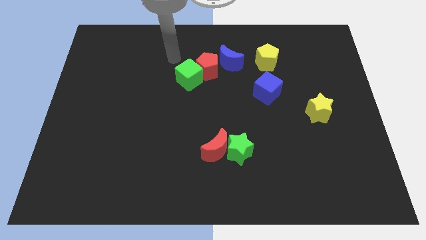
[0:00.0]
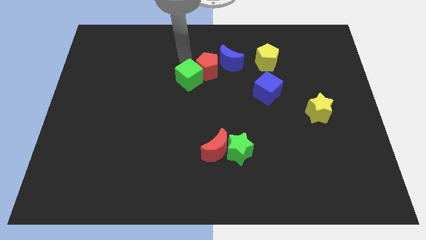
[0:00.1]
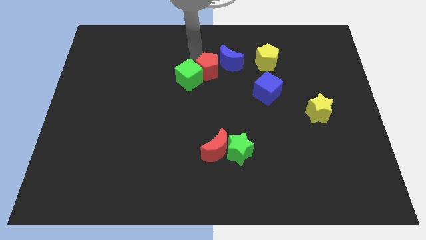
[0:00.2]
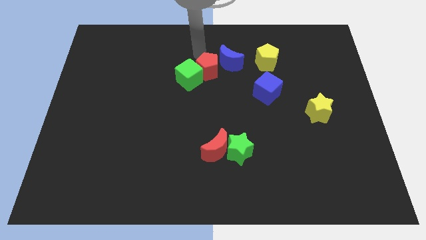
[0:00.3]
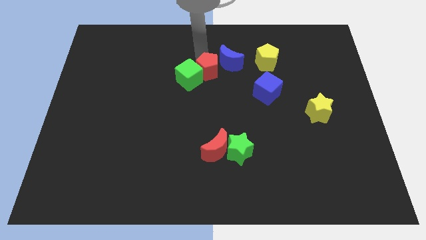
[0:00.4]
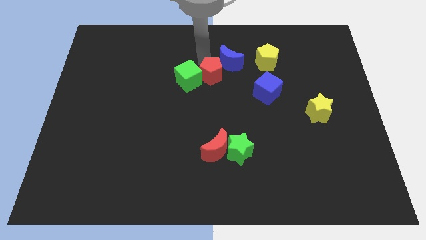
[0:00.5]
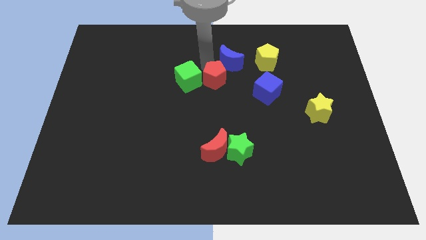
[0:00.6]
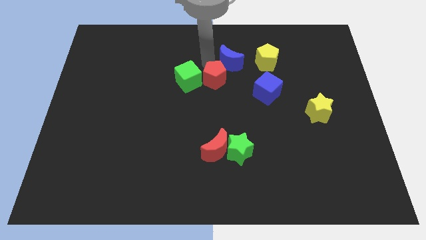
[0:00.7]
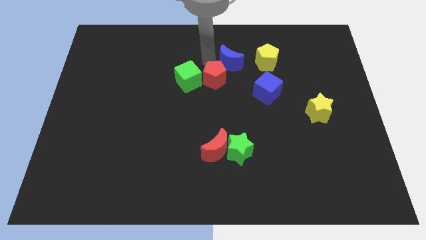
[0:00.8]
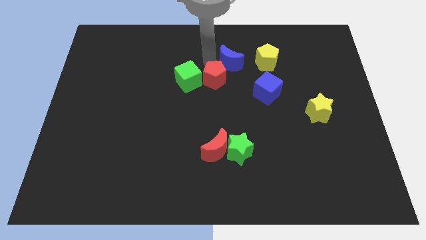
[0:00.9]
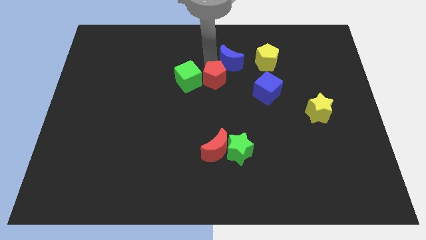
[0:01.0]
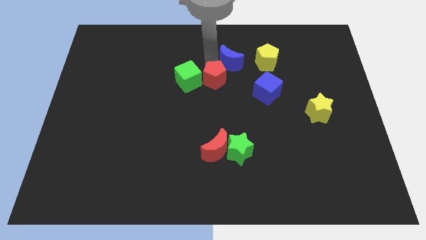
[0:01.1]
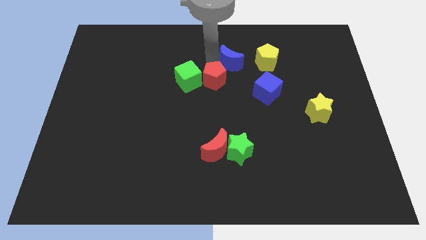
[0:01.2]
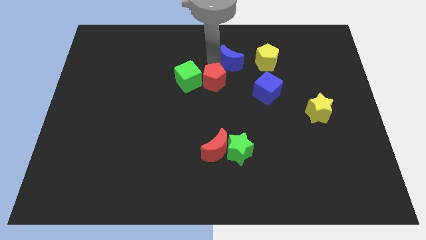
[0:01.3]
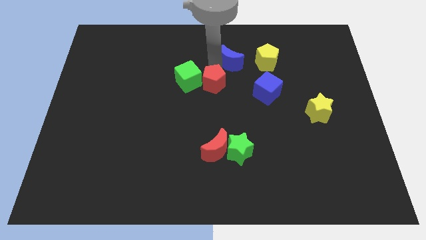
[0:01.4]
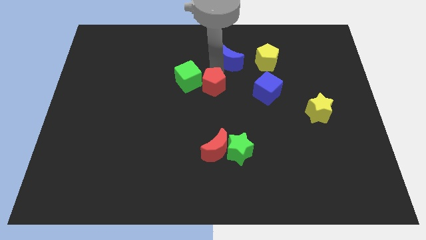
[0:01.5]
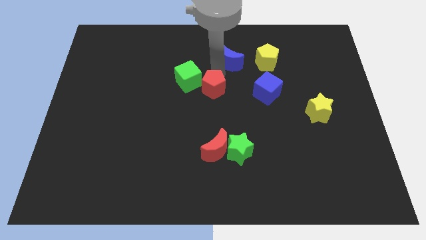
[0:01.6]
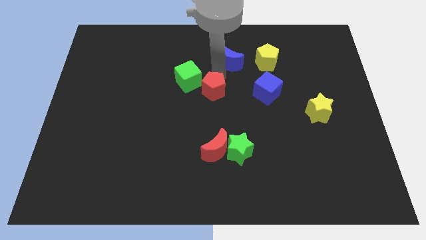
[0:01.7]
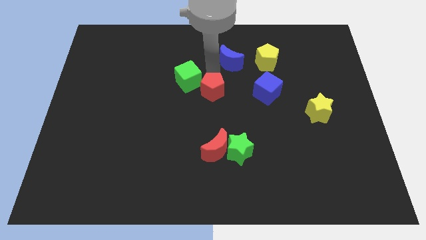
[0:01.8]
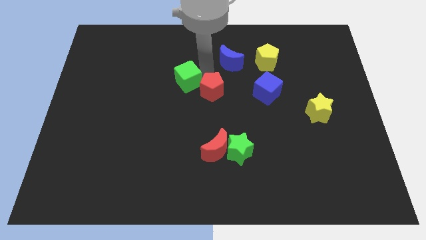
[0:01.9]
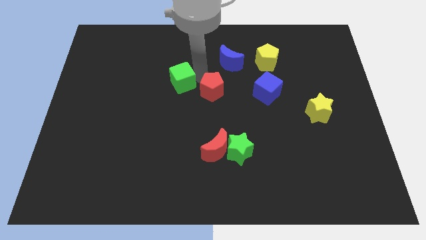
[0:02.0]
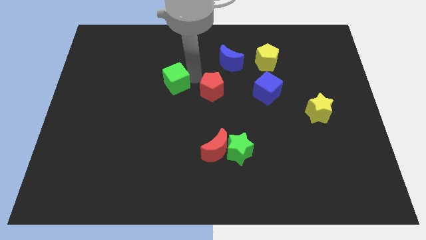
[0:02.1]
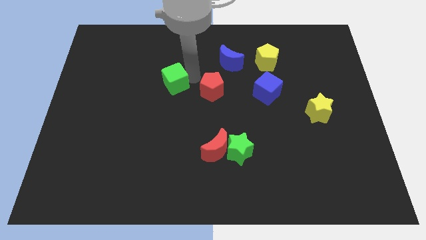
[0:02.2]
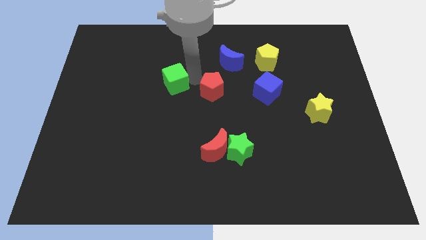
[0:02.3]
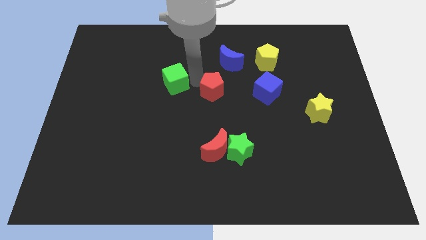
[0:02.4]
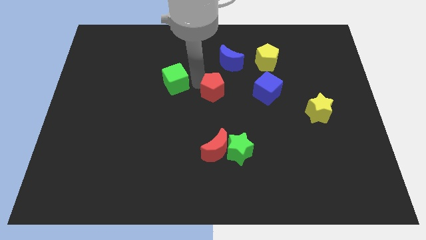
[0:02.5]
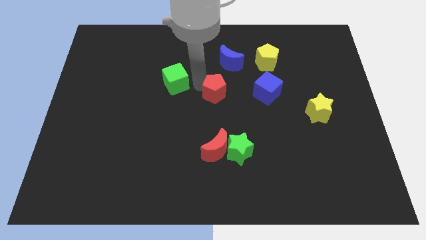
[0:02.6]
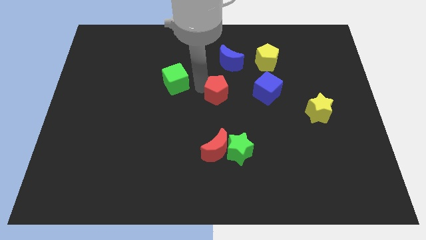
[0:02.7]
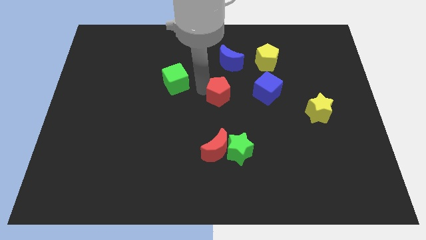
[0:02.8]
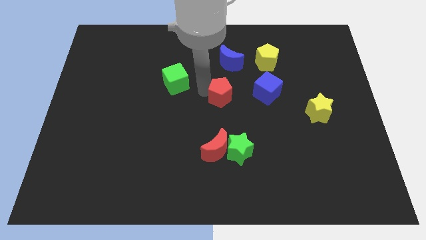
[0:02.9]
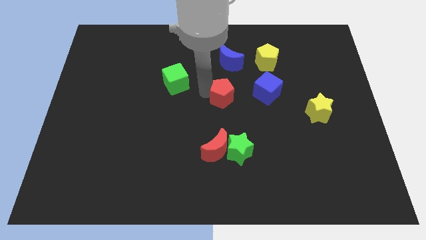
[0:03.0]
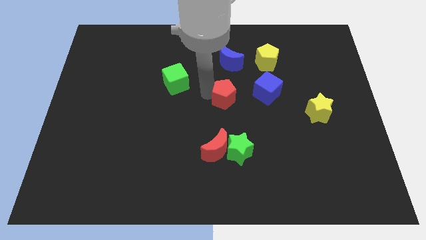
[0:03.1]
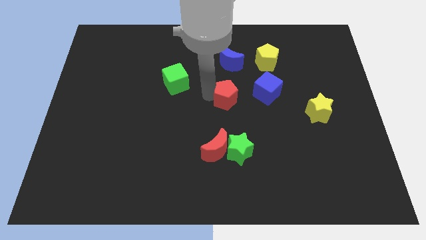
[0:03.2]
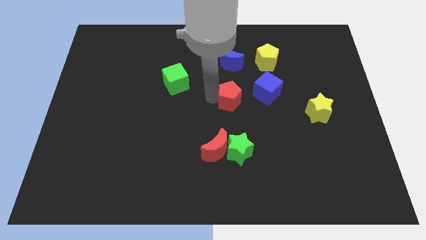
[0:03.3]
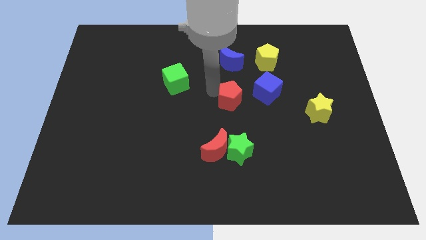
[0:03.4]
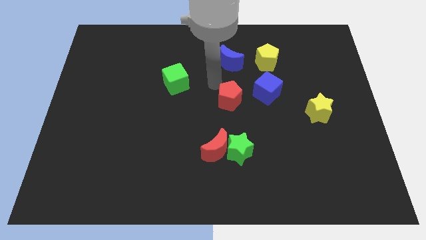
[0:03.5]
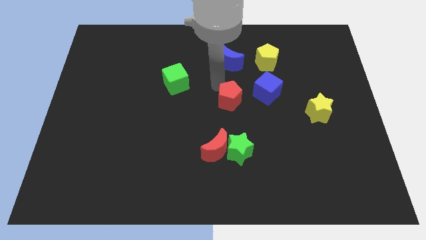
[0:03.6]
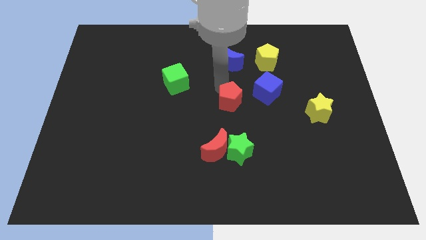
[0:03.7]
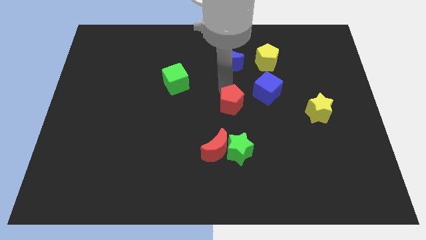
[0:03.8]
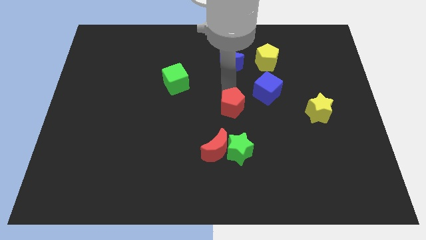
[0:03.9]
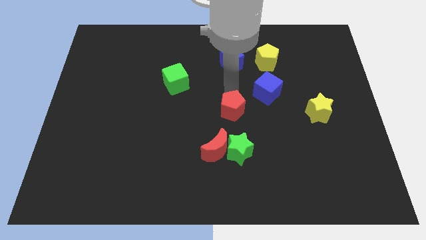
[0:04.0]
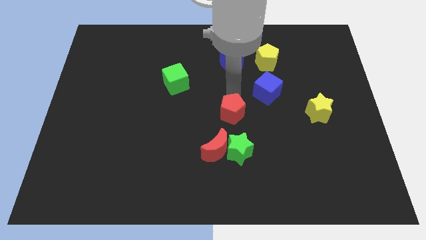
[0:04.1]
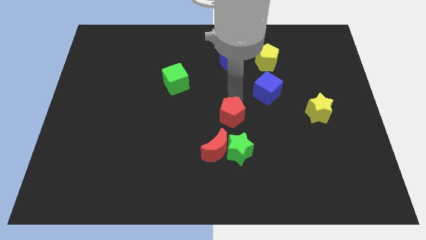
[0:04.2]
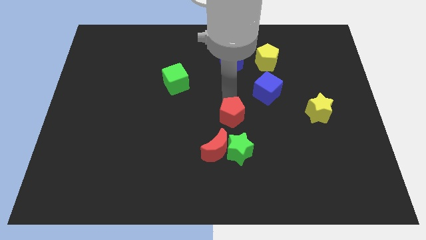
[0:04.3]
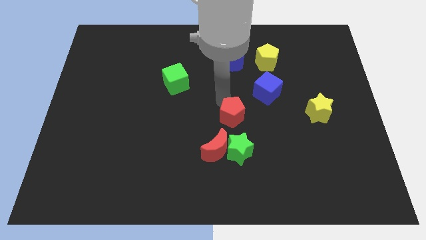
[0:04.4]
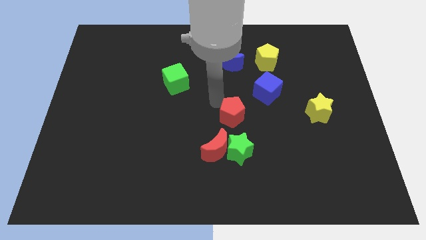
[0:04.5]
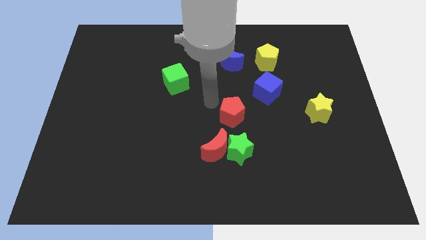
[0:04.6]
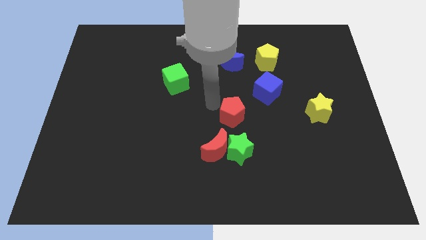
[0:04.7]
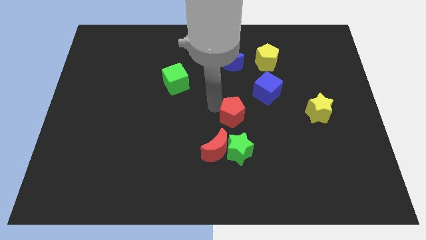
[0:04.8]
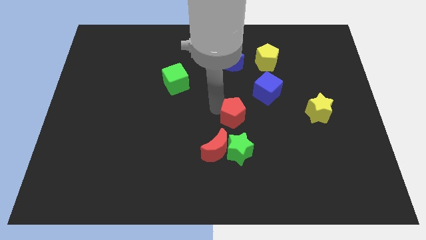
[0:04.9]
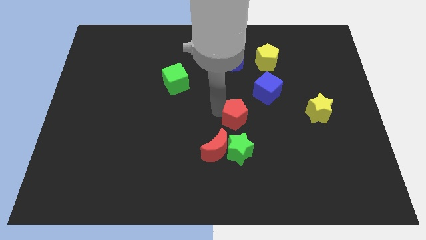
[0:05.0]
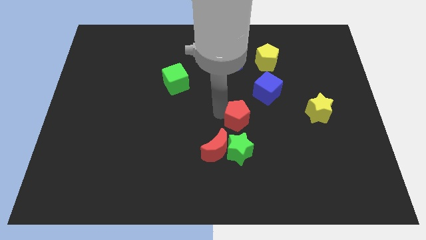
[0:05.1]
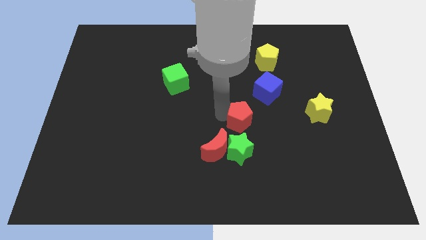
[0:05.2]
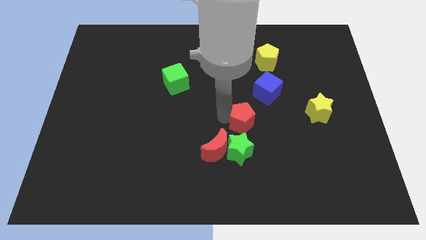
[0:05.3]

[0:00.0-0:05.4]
push the red pentagon diagonally up and to the right of the green star

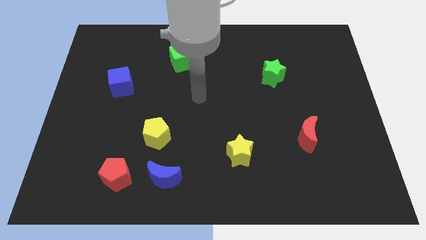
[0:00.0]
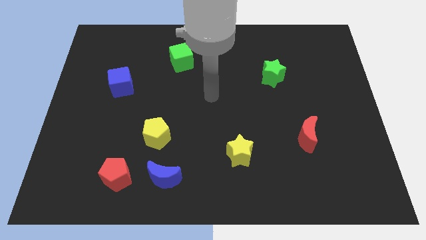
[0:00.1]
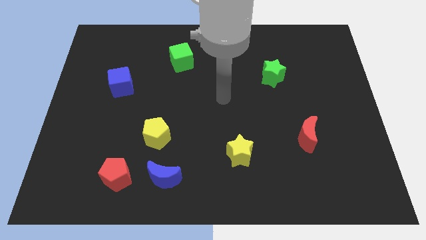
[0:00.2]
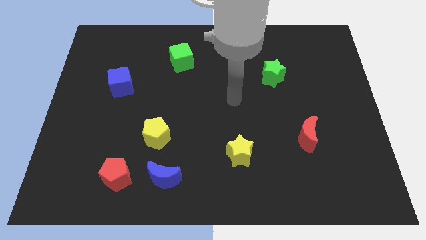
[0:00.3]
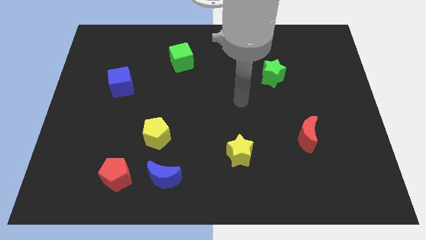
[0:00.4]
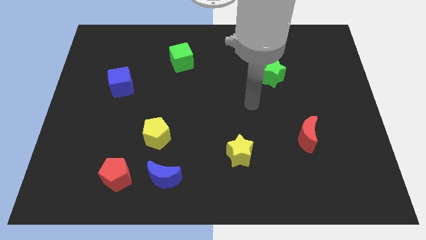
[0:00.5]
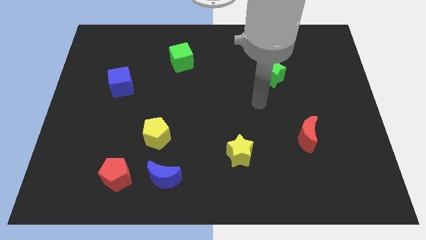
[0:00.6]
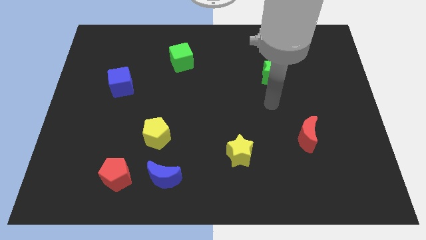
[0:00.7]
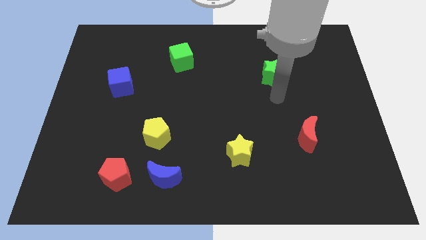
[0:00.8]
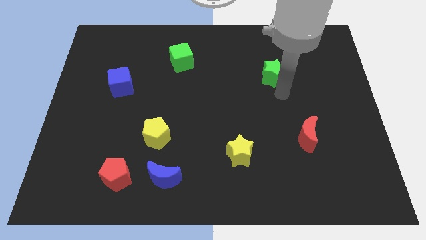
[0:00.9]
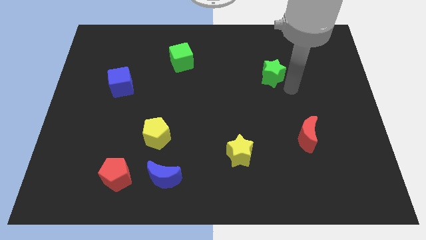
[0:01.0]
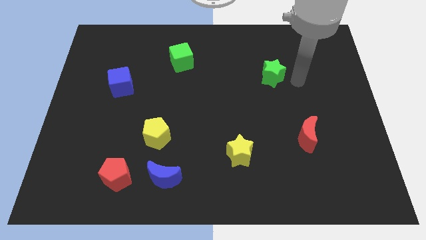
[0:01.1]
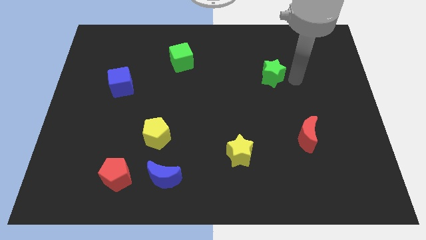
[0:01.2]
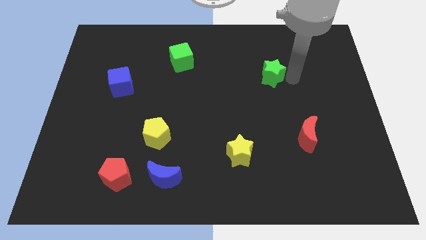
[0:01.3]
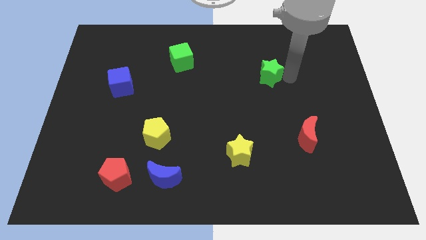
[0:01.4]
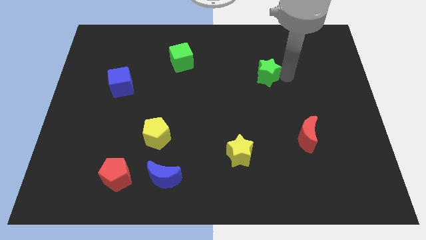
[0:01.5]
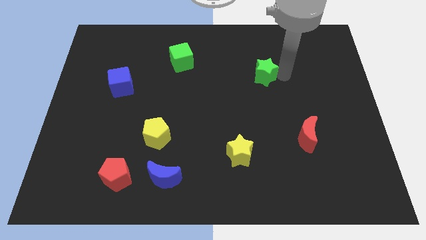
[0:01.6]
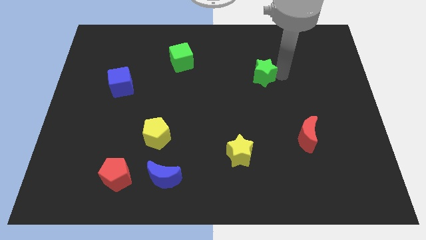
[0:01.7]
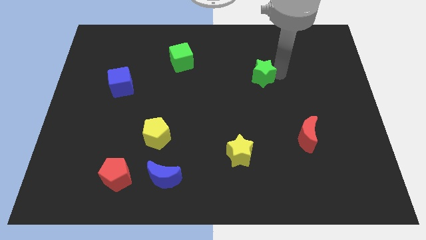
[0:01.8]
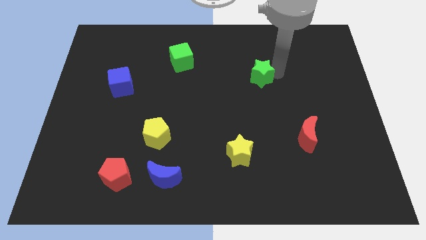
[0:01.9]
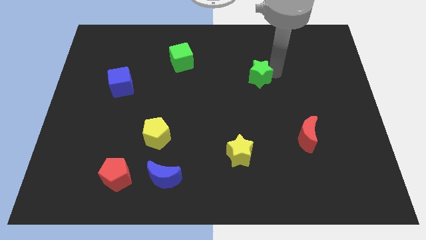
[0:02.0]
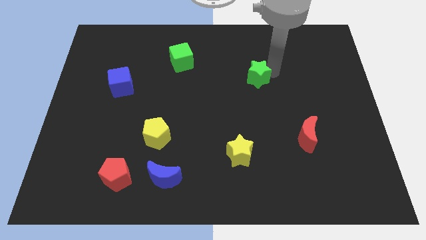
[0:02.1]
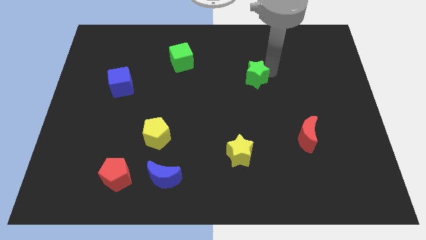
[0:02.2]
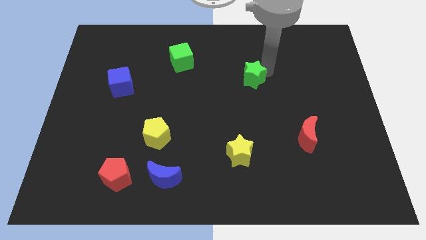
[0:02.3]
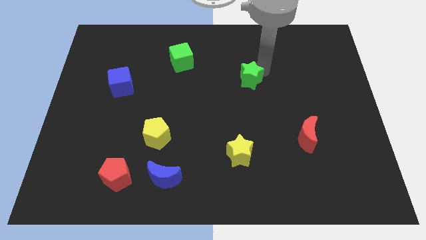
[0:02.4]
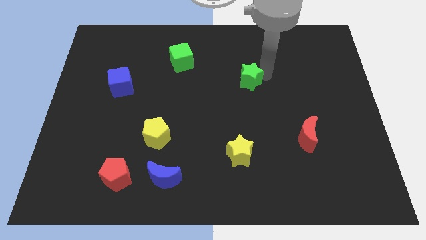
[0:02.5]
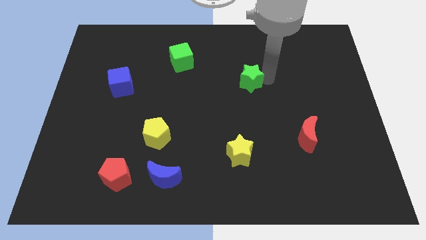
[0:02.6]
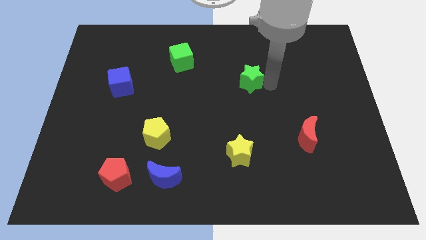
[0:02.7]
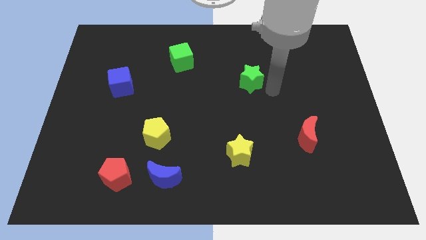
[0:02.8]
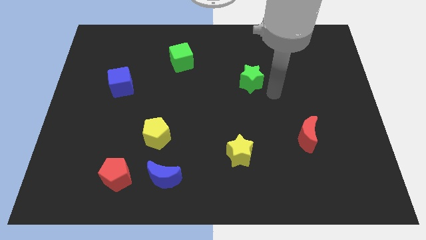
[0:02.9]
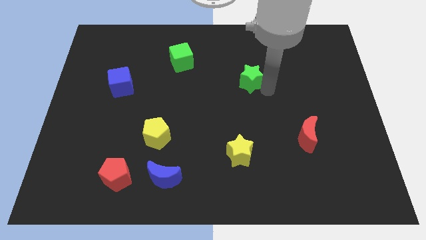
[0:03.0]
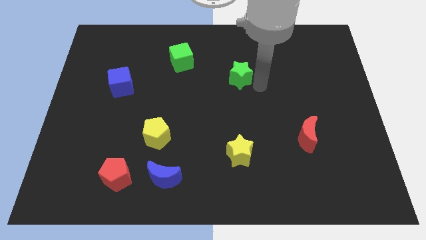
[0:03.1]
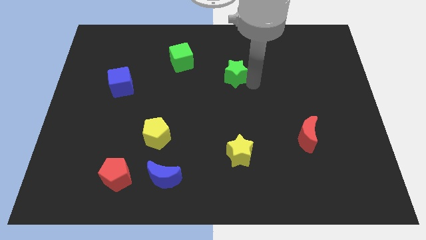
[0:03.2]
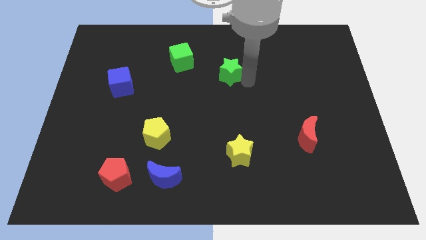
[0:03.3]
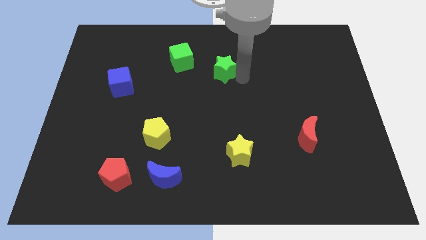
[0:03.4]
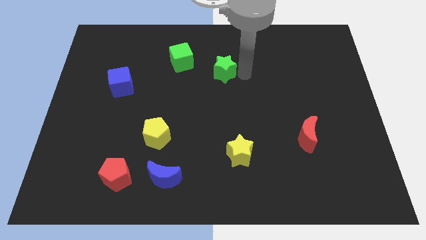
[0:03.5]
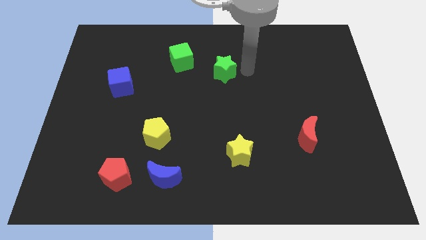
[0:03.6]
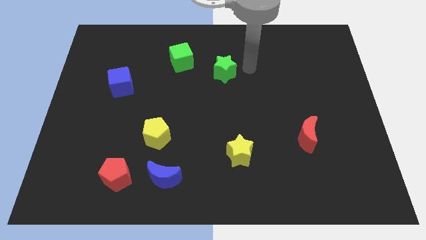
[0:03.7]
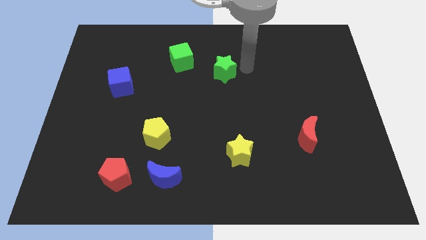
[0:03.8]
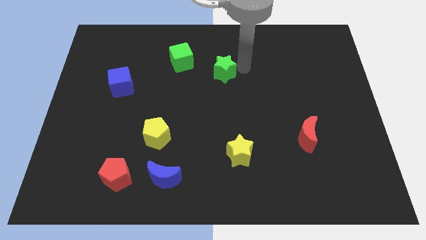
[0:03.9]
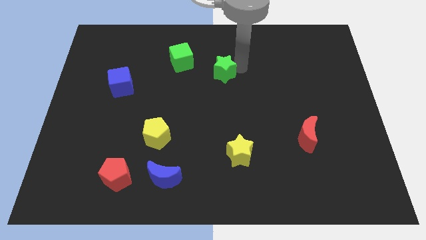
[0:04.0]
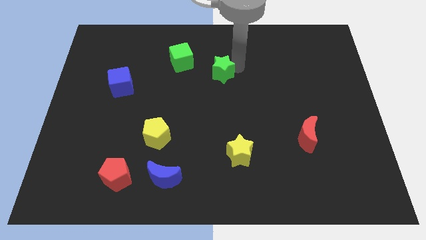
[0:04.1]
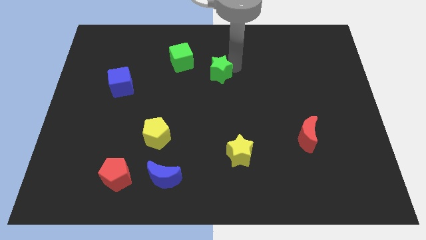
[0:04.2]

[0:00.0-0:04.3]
move the green star diagonally down and to the right of the green cube
